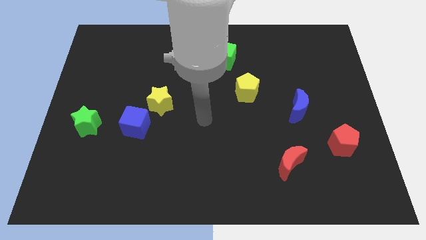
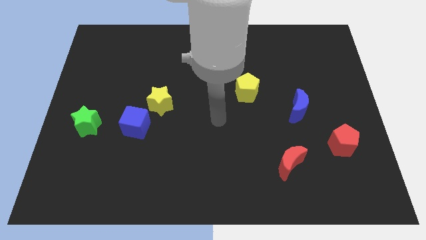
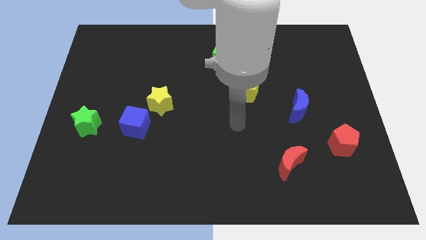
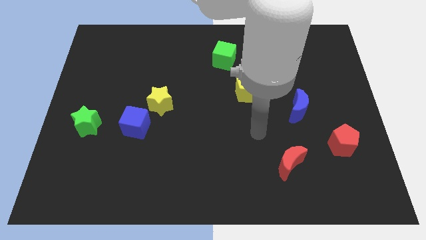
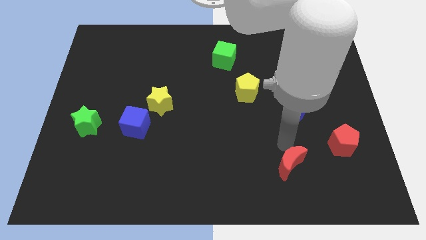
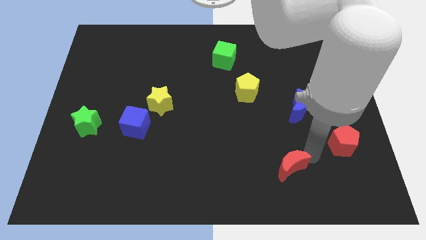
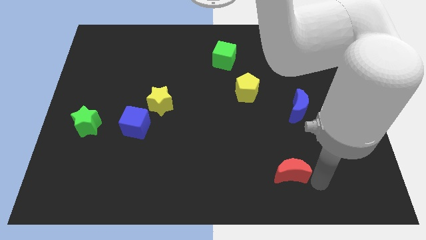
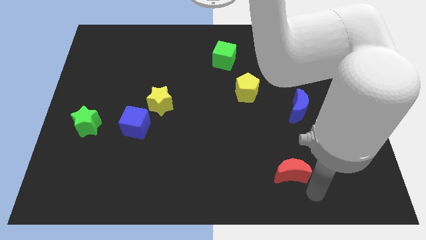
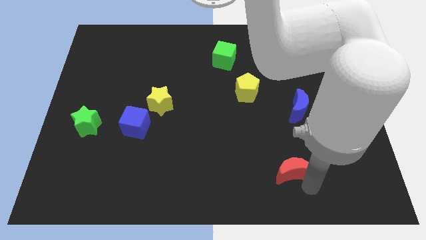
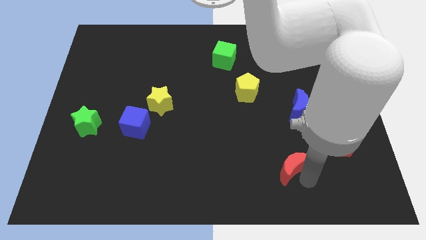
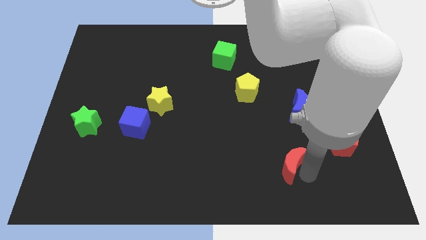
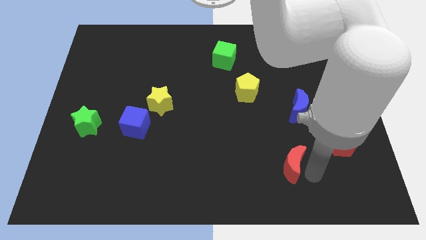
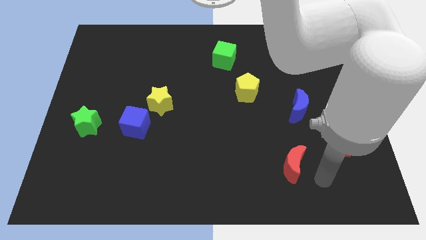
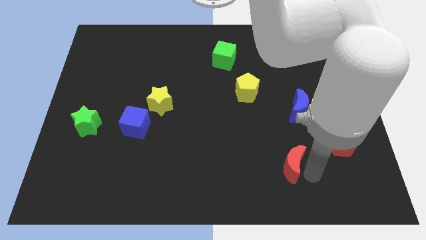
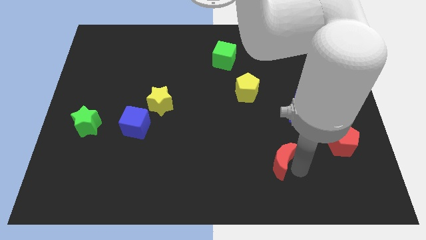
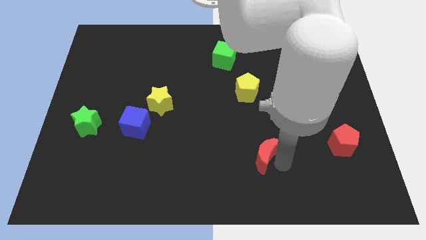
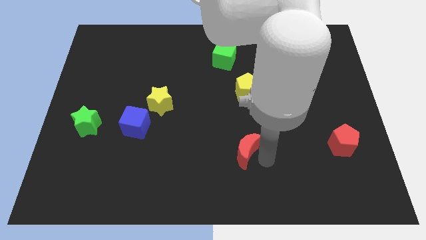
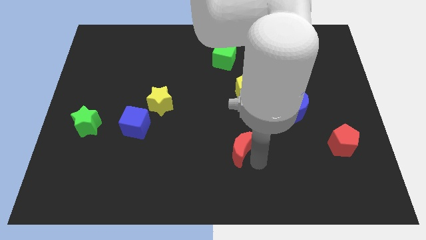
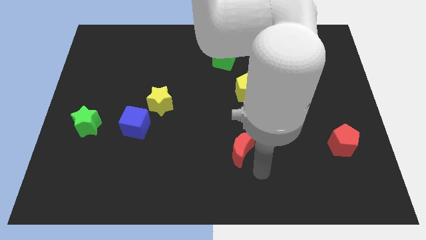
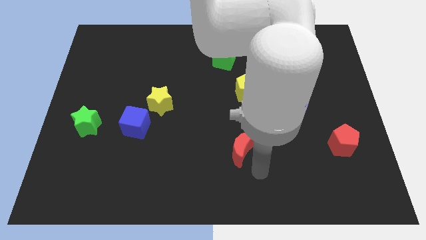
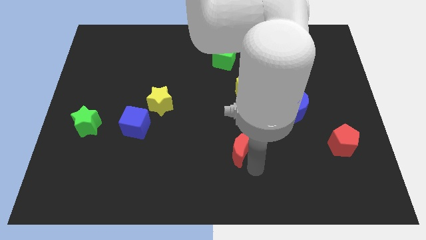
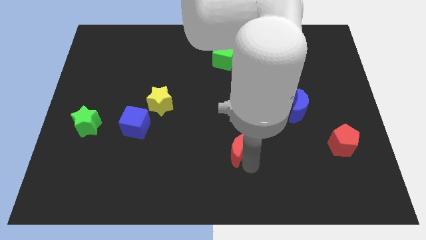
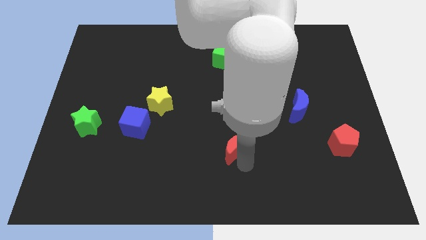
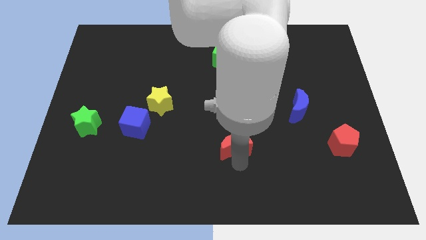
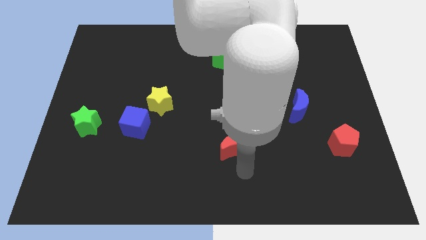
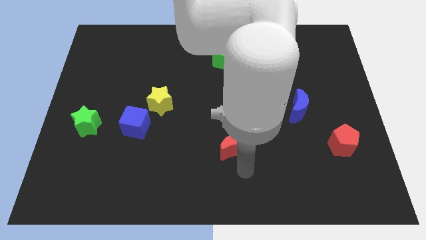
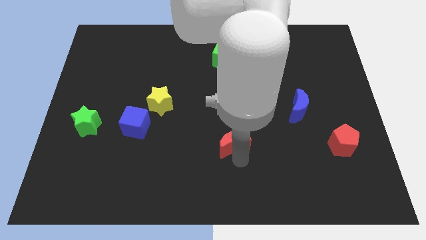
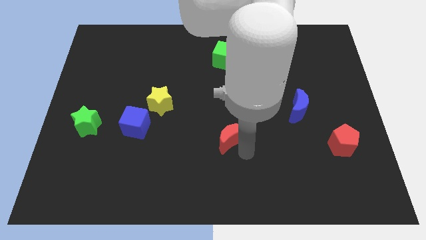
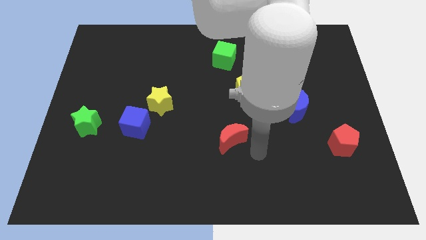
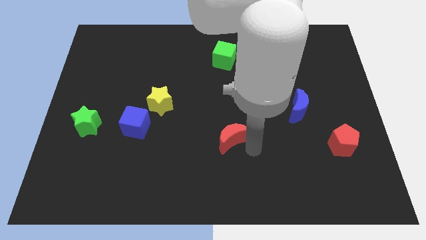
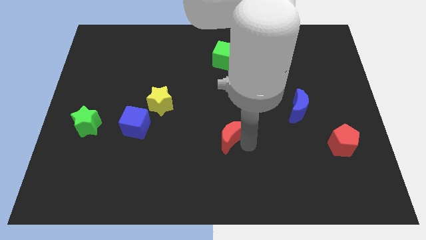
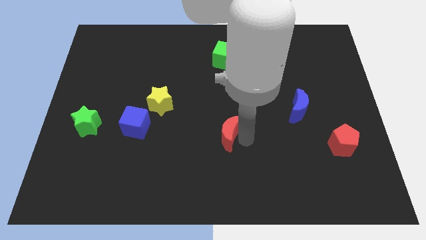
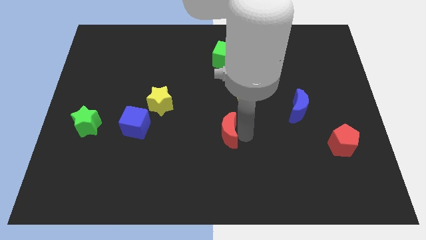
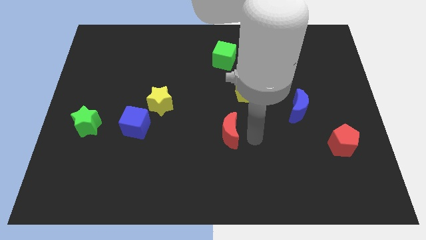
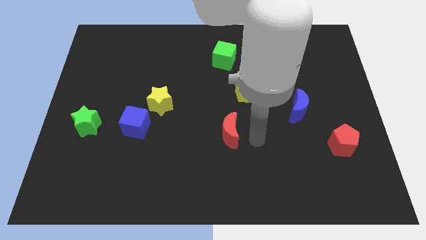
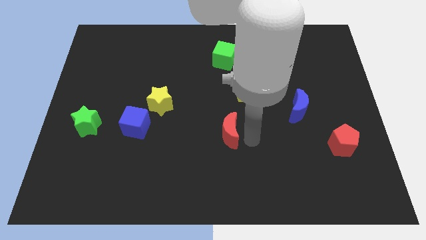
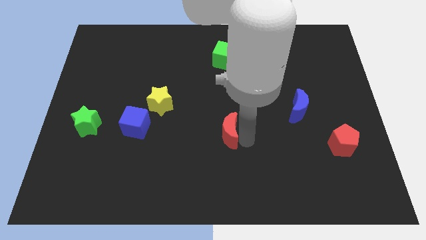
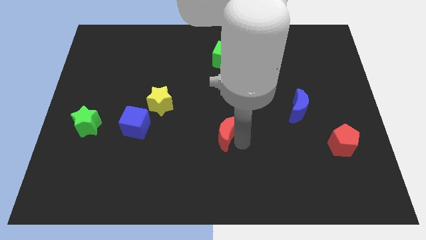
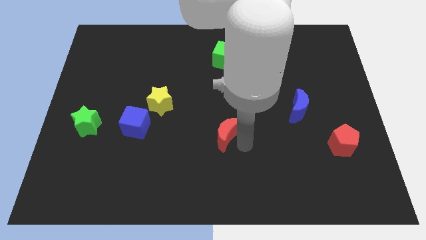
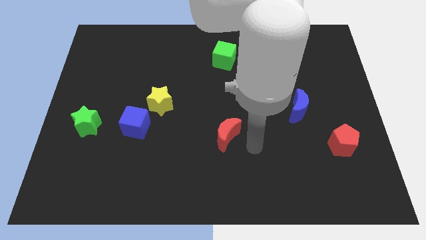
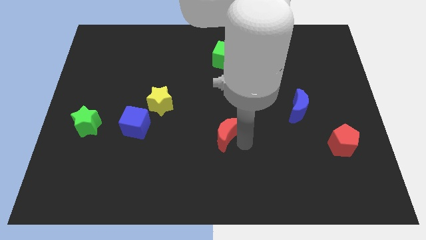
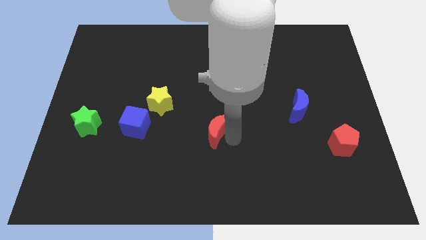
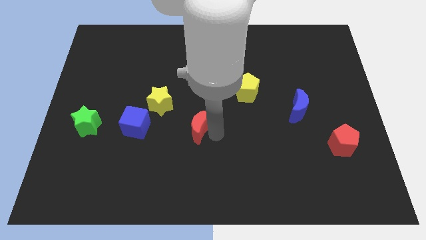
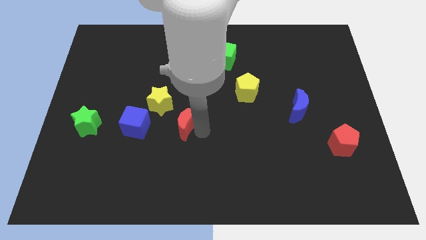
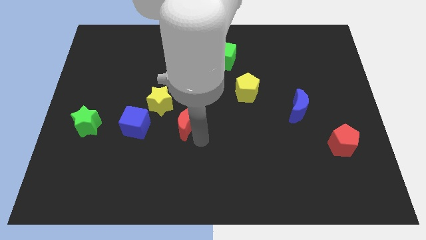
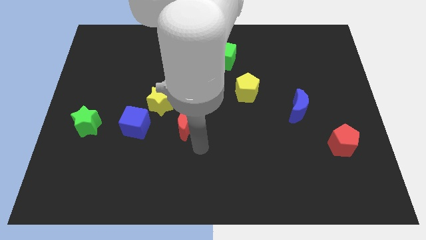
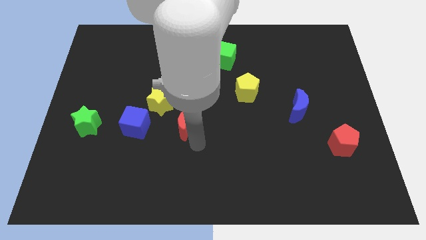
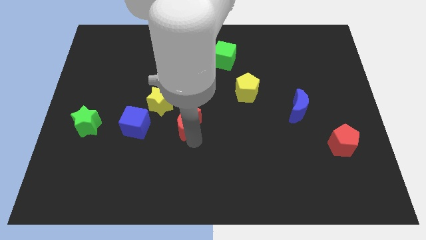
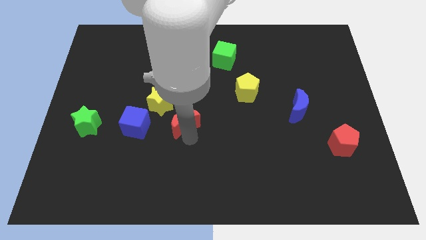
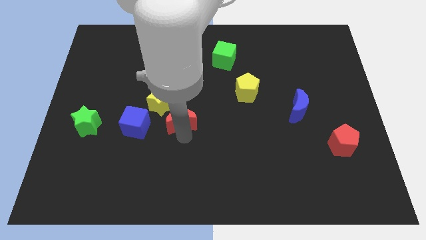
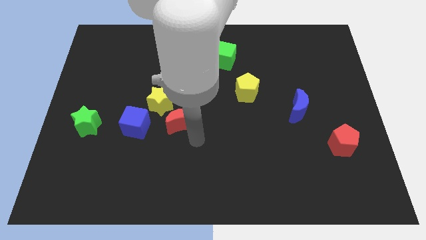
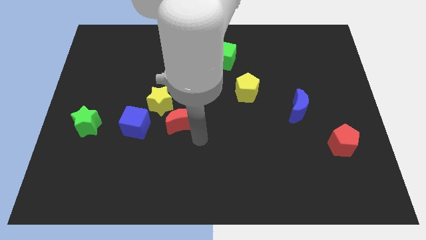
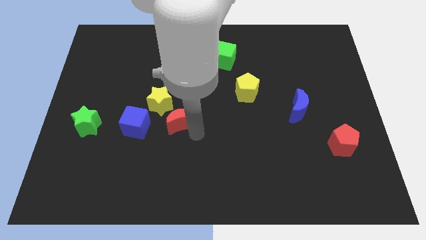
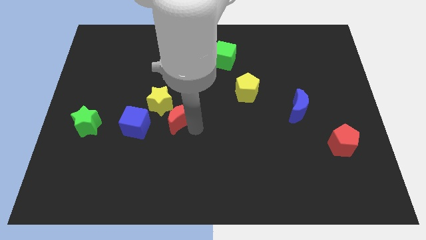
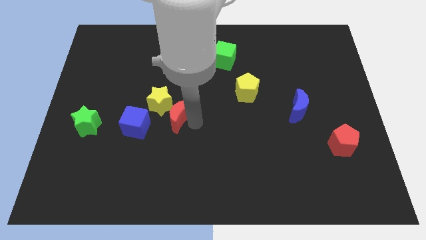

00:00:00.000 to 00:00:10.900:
push the red moon to the yellow star

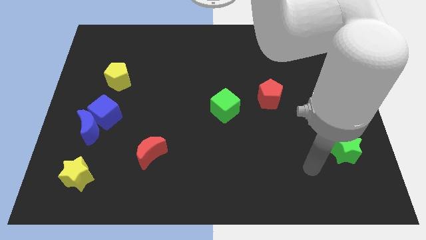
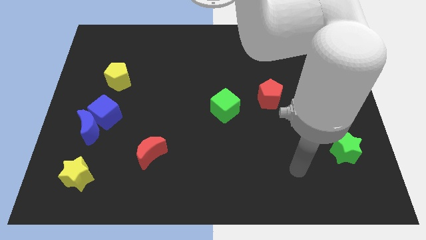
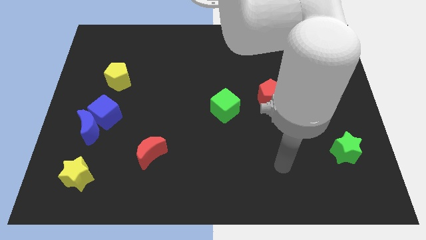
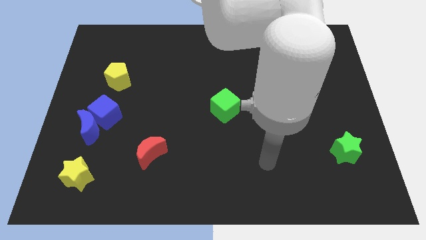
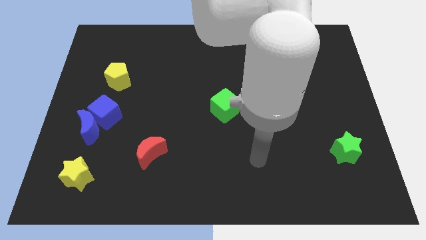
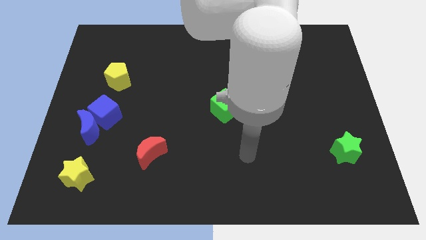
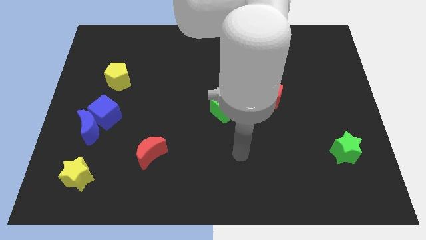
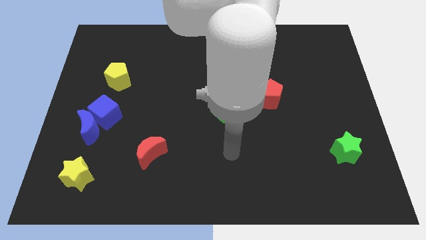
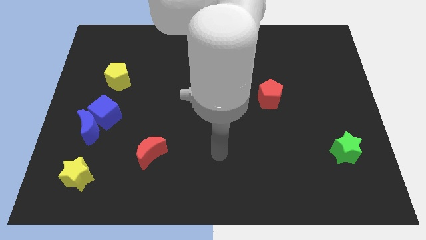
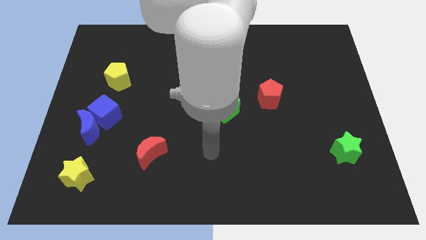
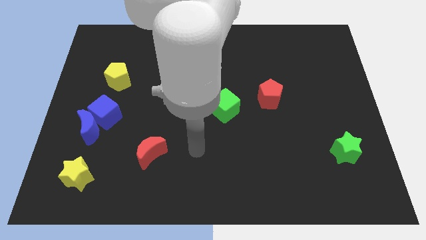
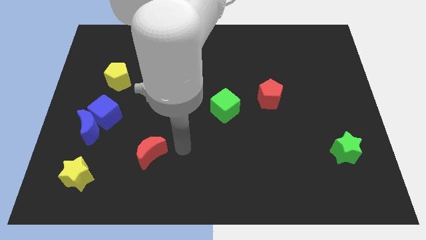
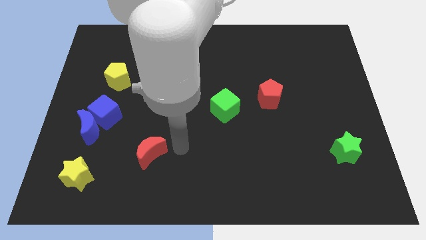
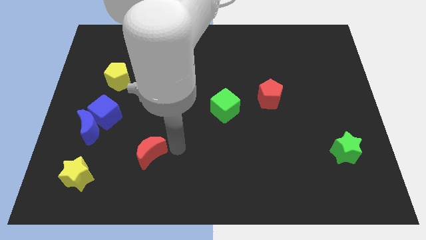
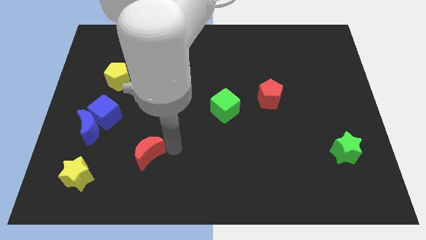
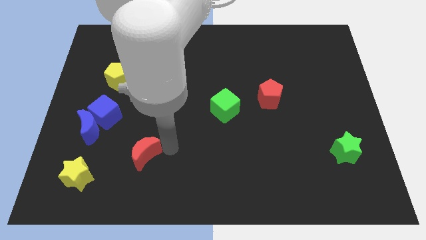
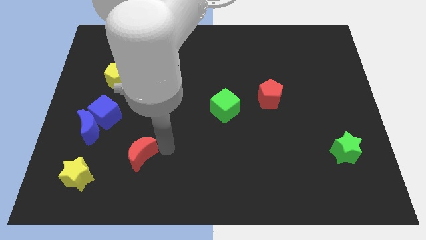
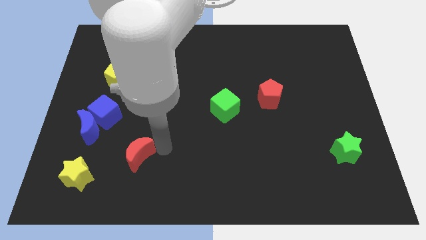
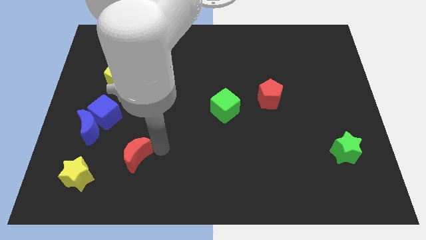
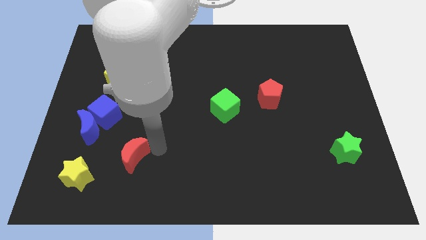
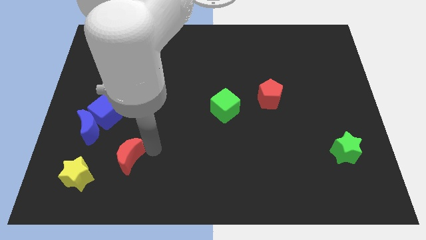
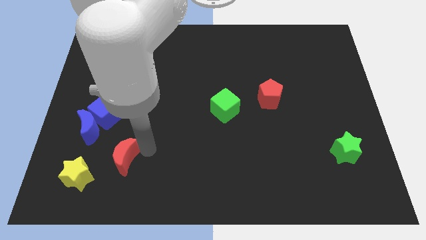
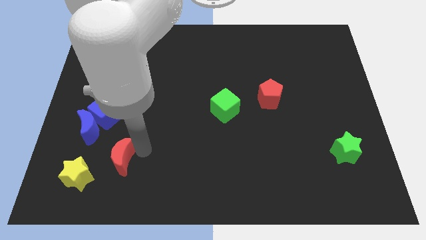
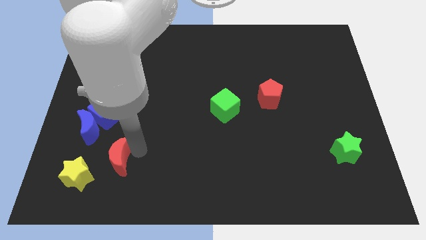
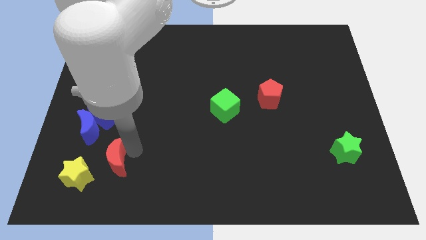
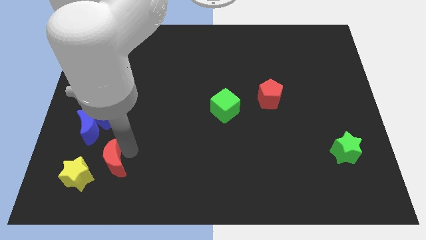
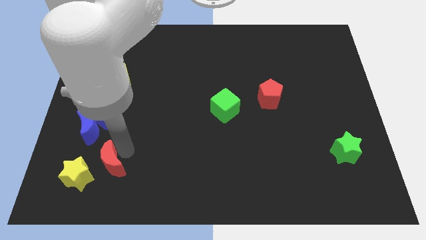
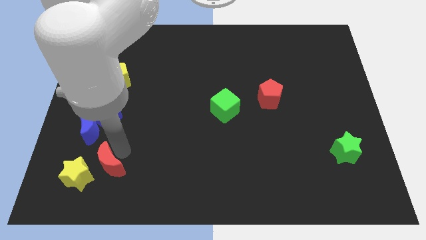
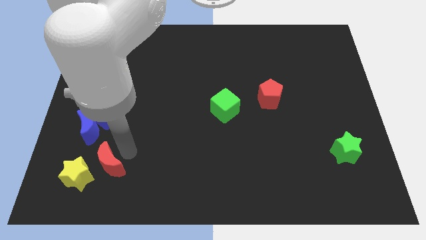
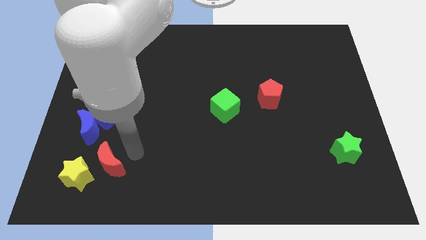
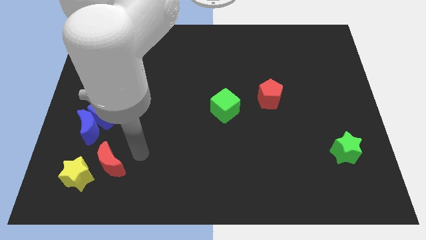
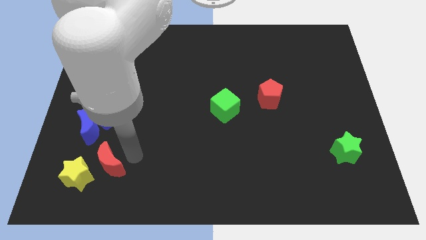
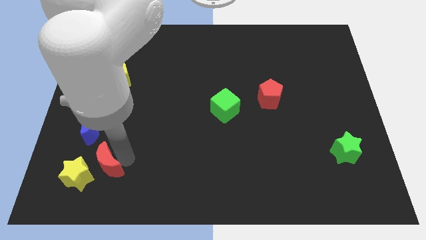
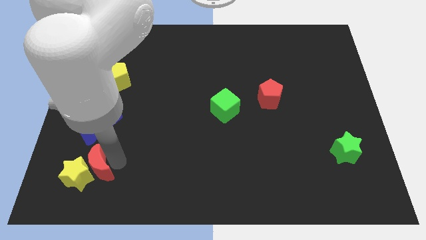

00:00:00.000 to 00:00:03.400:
move the red moon close to the yellow star
